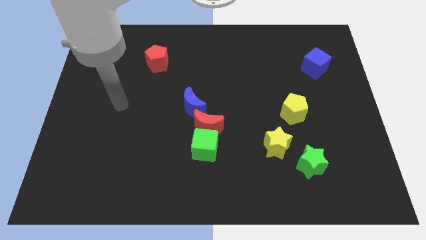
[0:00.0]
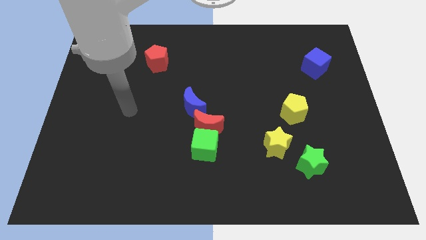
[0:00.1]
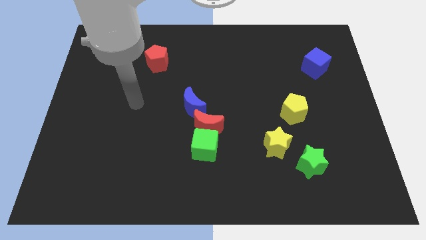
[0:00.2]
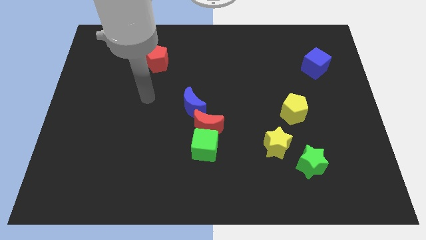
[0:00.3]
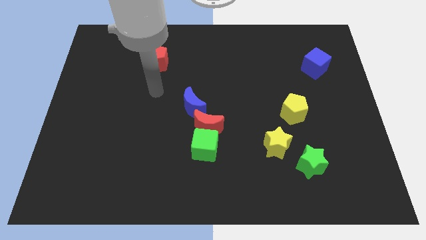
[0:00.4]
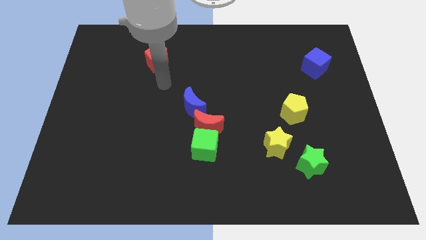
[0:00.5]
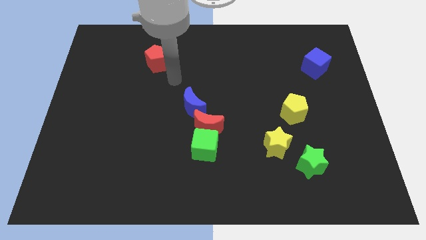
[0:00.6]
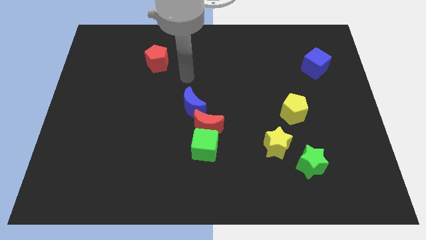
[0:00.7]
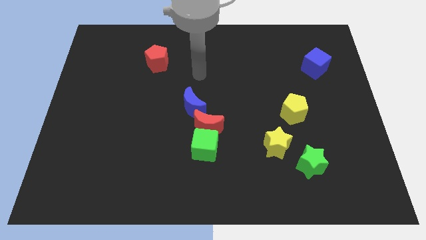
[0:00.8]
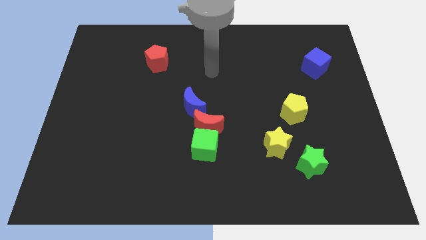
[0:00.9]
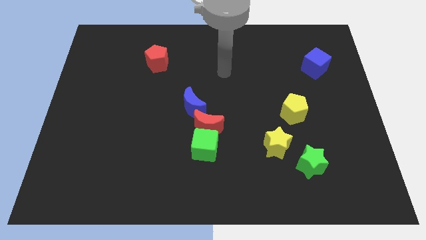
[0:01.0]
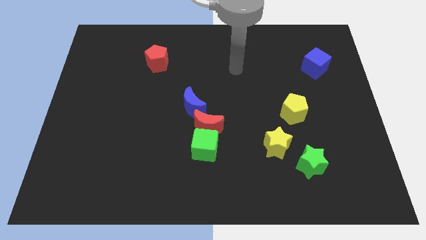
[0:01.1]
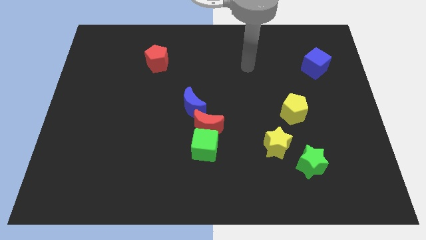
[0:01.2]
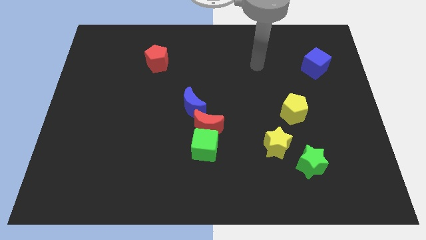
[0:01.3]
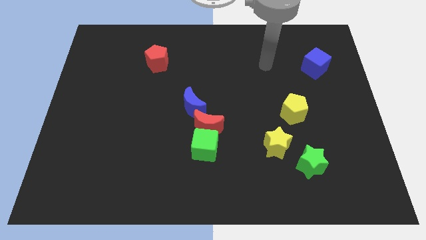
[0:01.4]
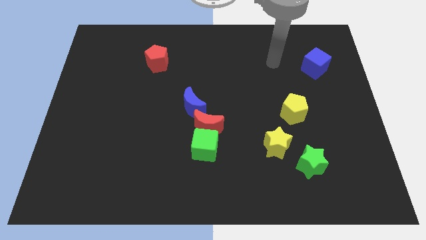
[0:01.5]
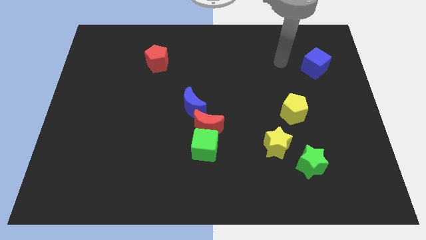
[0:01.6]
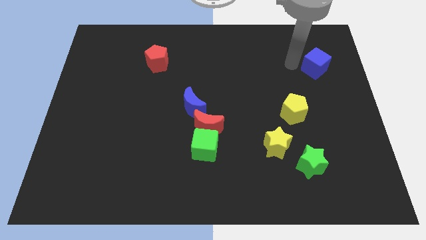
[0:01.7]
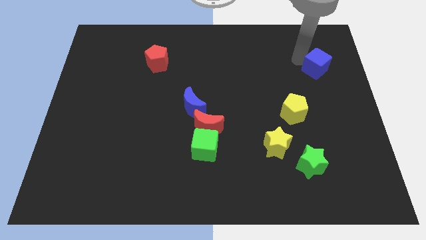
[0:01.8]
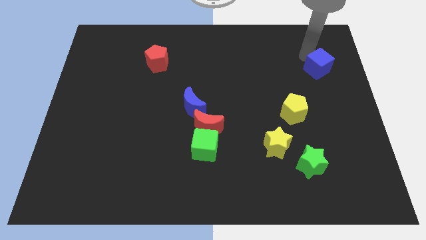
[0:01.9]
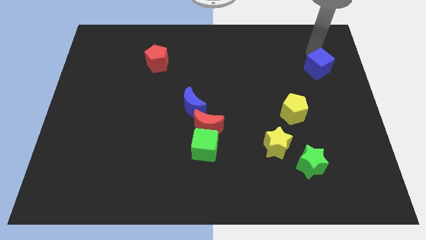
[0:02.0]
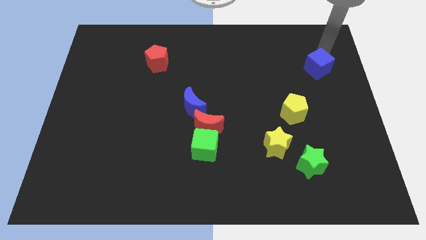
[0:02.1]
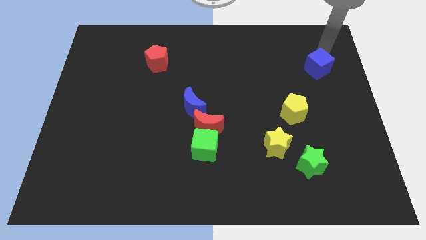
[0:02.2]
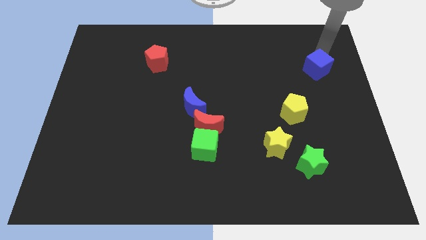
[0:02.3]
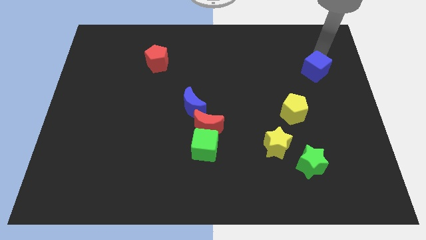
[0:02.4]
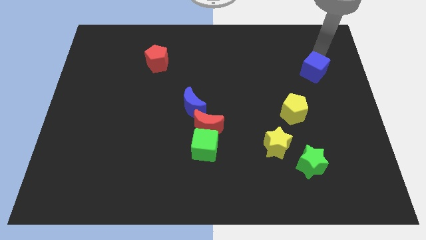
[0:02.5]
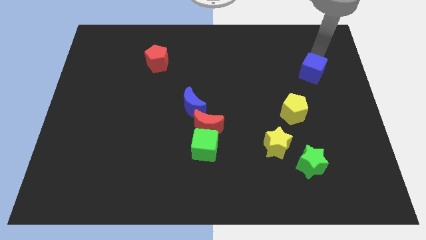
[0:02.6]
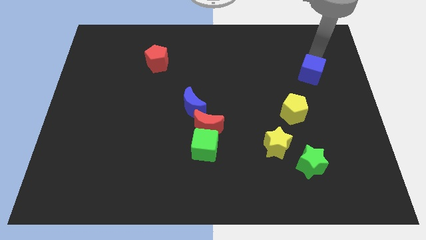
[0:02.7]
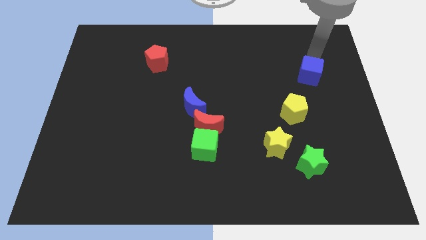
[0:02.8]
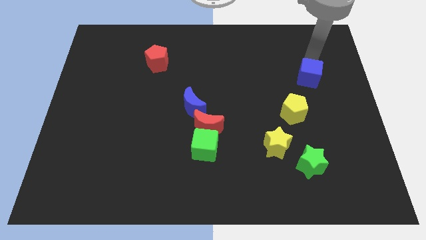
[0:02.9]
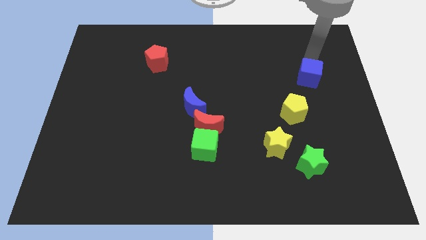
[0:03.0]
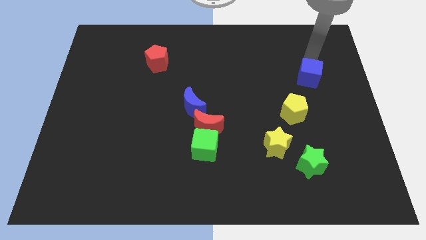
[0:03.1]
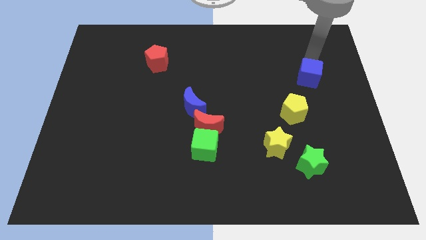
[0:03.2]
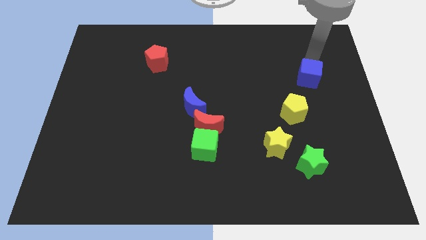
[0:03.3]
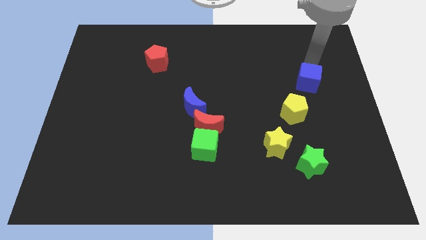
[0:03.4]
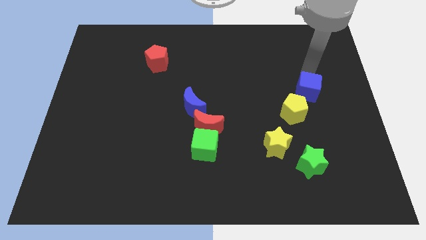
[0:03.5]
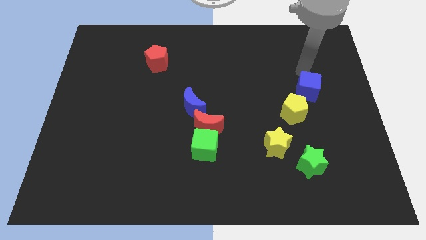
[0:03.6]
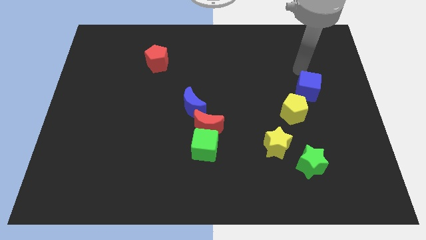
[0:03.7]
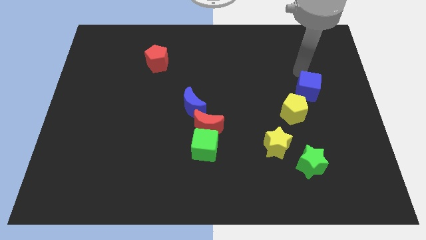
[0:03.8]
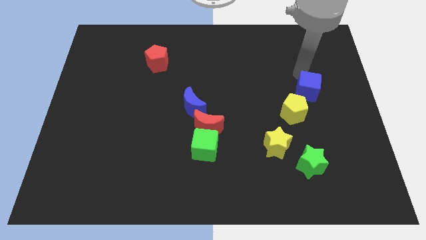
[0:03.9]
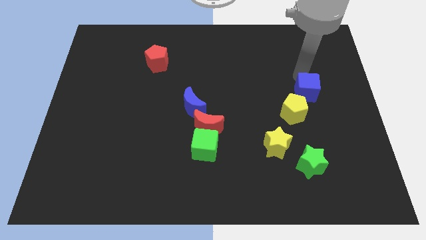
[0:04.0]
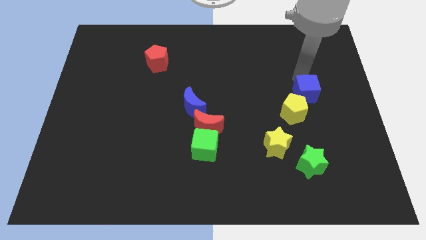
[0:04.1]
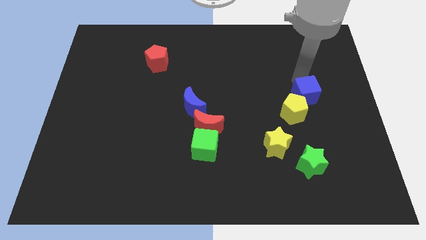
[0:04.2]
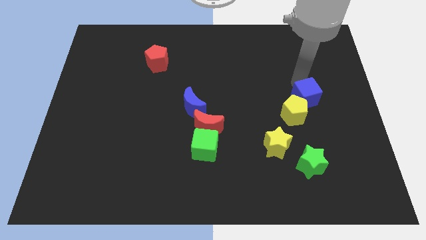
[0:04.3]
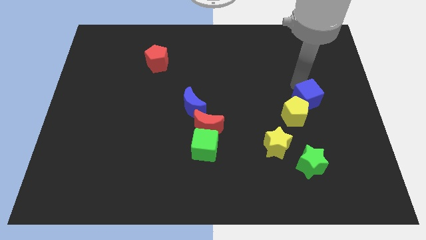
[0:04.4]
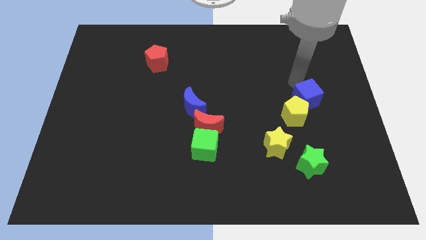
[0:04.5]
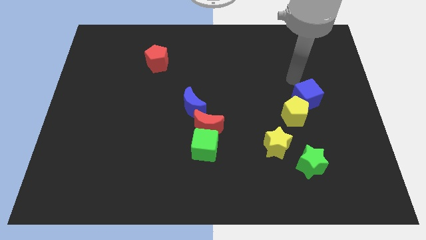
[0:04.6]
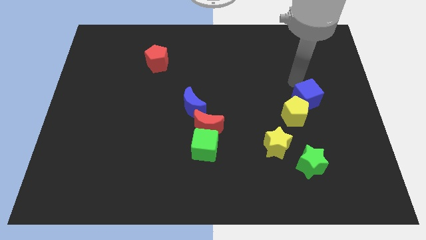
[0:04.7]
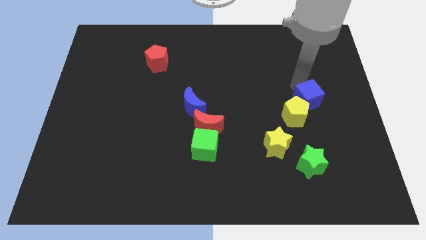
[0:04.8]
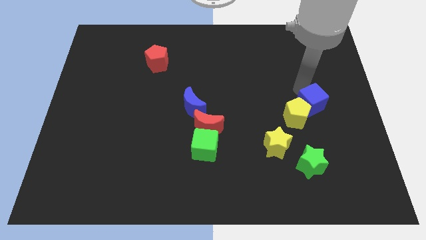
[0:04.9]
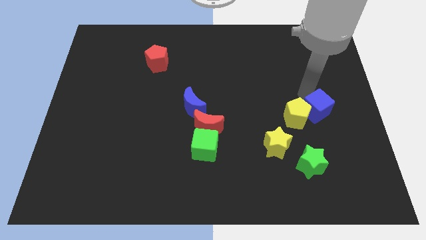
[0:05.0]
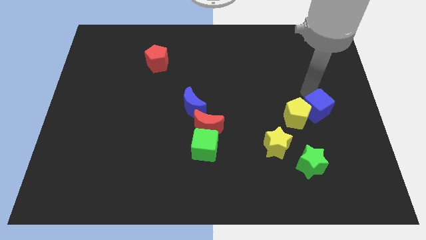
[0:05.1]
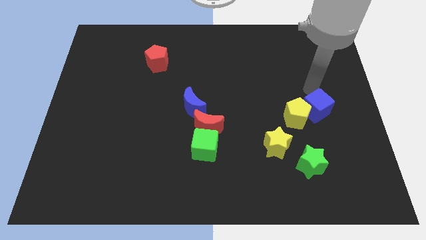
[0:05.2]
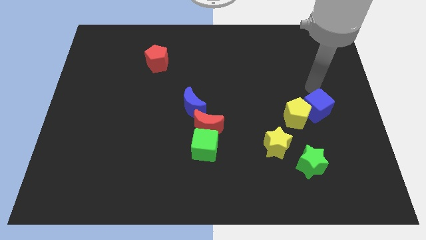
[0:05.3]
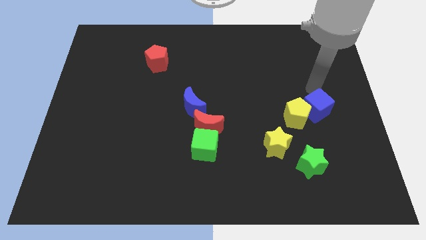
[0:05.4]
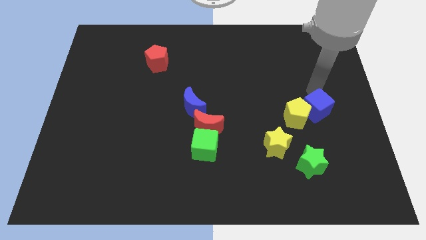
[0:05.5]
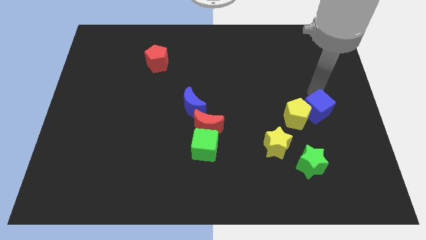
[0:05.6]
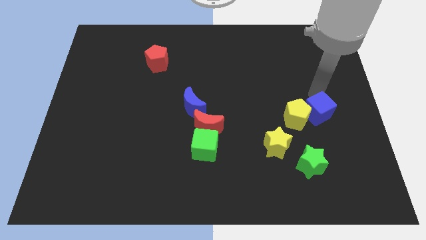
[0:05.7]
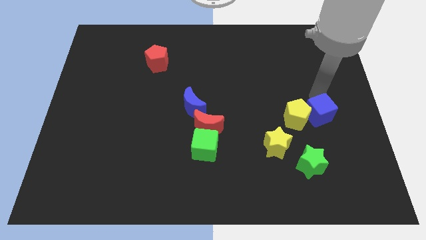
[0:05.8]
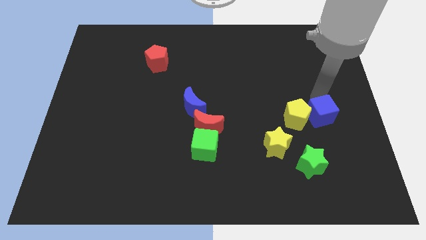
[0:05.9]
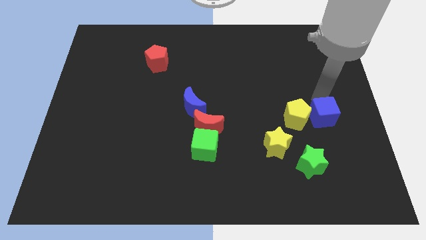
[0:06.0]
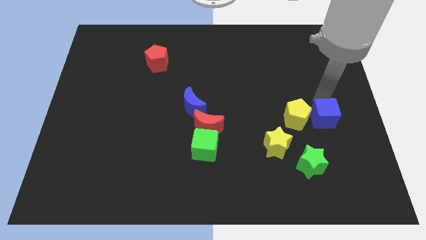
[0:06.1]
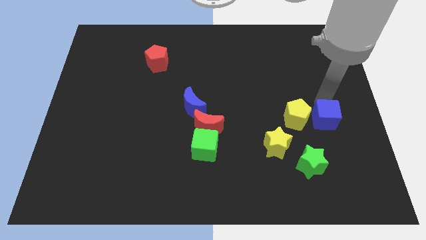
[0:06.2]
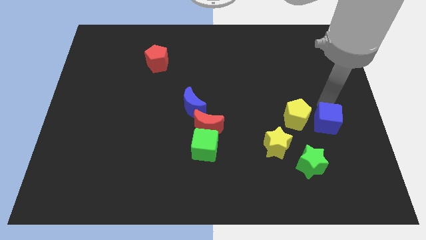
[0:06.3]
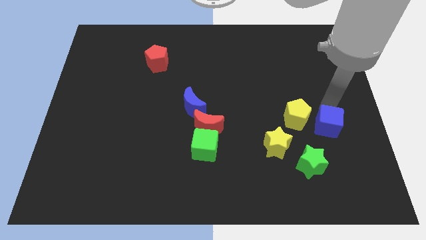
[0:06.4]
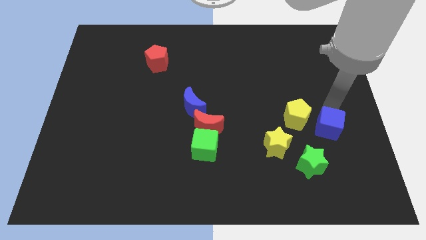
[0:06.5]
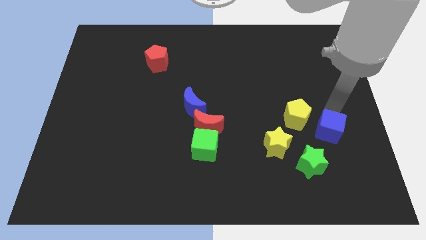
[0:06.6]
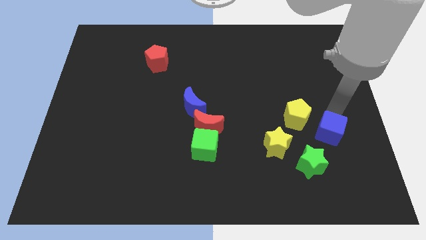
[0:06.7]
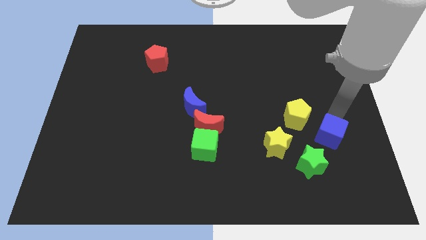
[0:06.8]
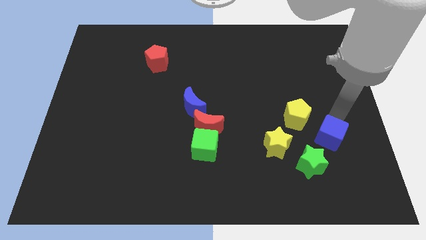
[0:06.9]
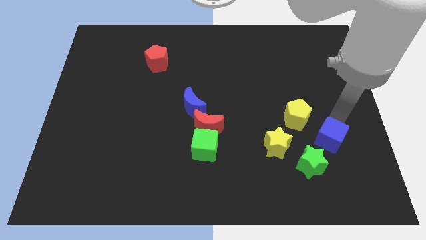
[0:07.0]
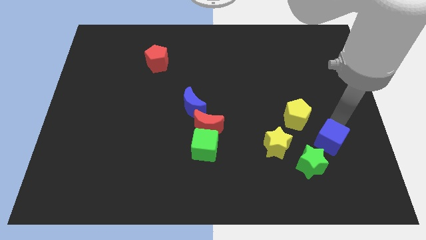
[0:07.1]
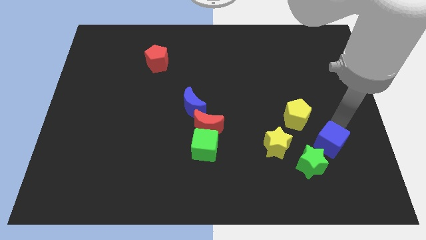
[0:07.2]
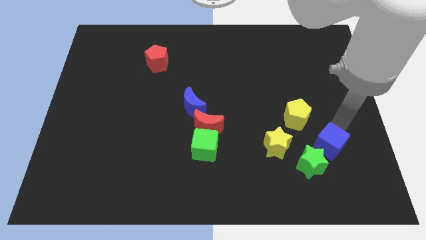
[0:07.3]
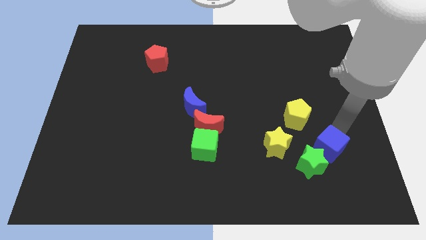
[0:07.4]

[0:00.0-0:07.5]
slide the blue cube to the green star

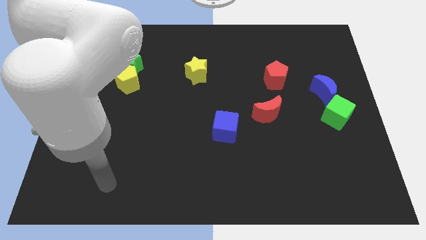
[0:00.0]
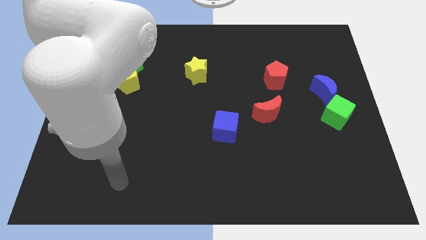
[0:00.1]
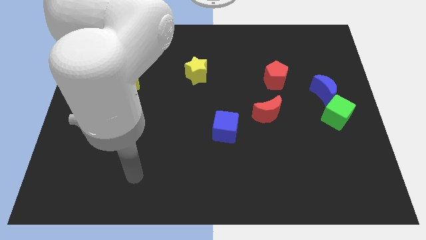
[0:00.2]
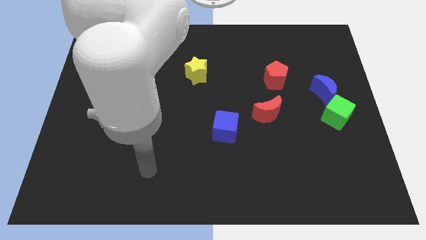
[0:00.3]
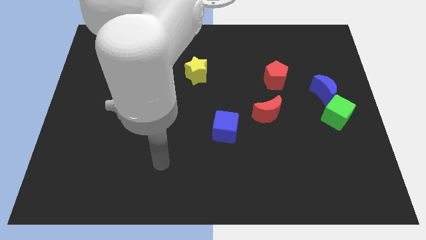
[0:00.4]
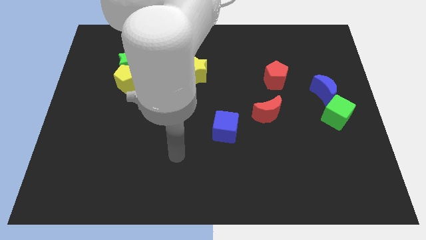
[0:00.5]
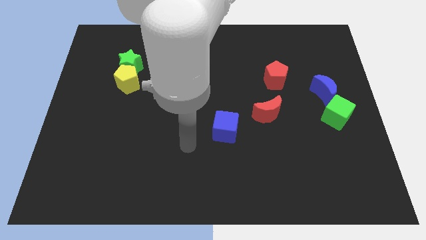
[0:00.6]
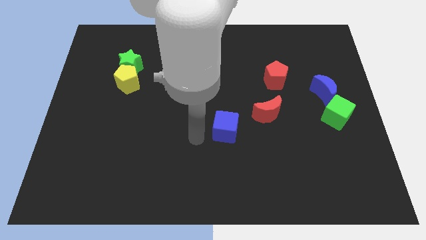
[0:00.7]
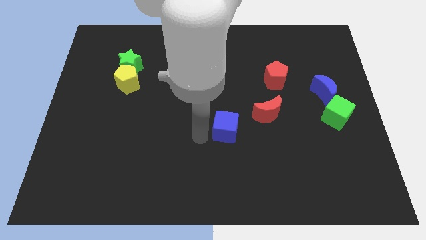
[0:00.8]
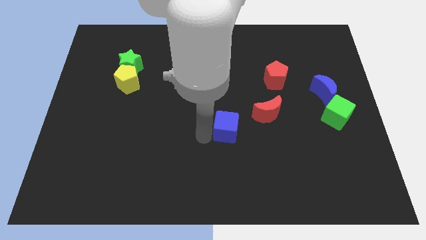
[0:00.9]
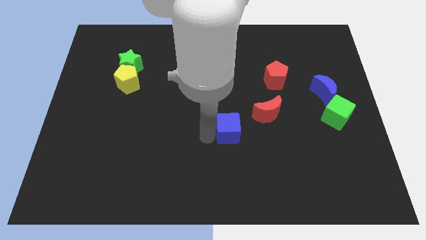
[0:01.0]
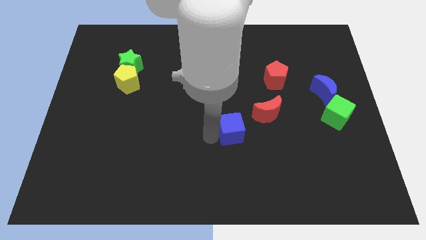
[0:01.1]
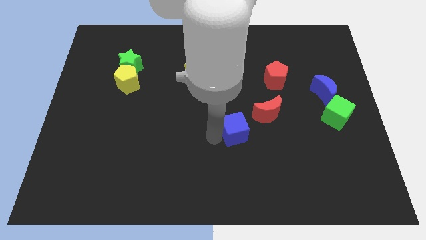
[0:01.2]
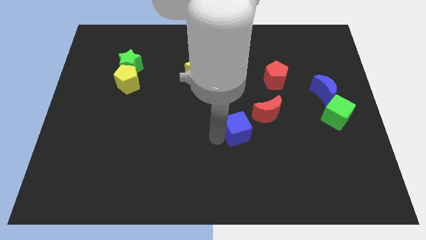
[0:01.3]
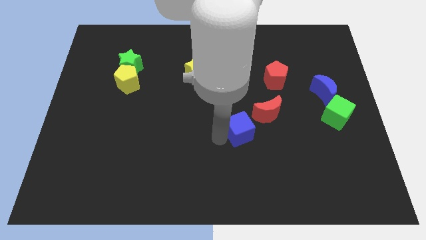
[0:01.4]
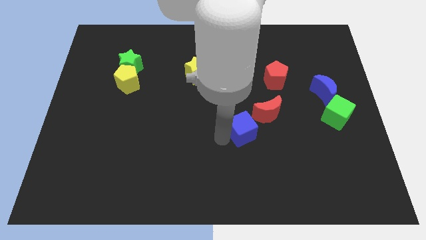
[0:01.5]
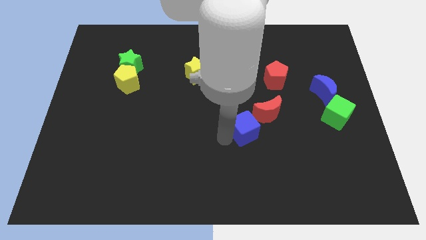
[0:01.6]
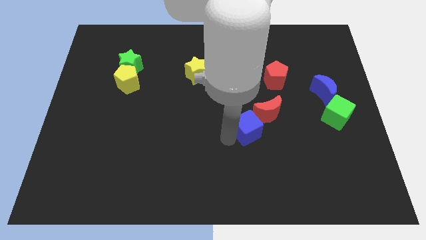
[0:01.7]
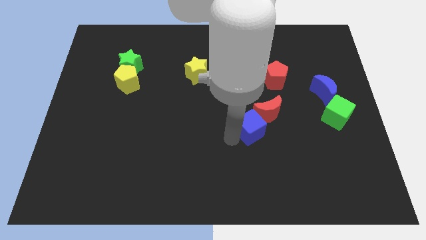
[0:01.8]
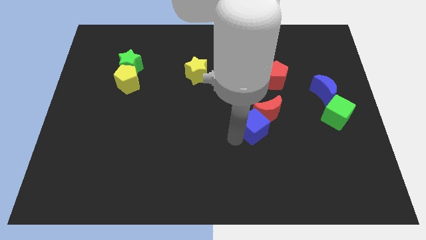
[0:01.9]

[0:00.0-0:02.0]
move the blue cube next to the red moon
